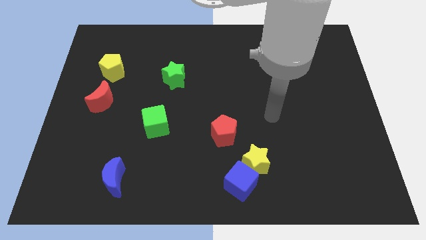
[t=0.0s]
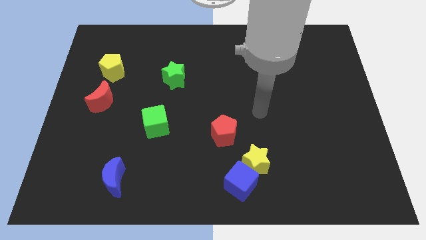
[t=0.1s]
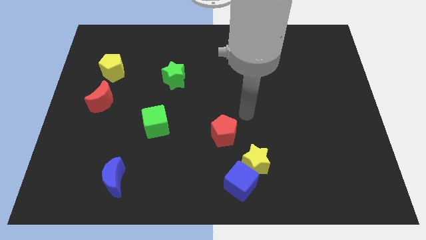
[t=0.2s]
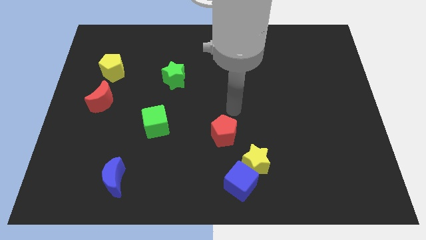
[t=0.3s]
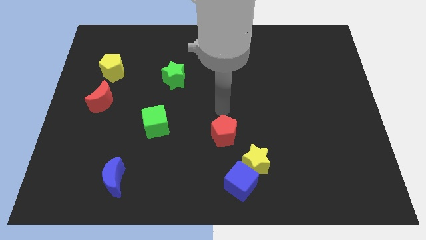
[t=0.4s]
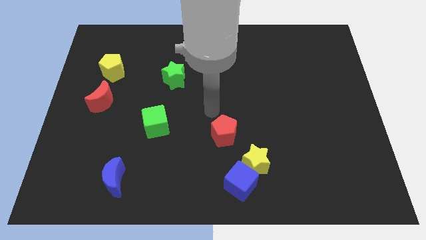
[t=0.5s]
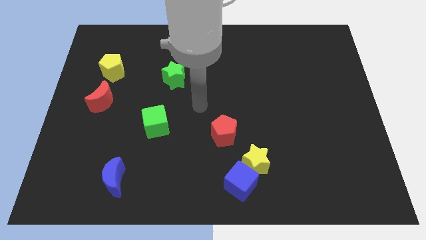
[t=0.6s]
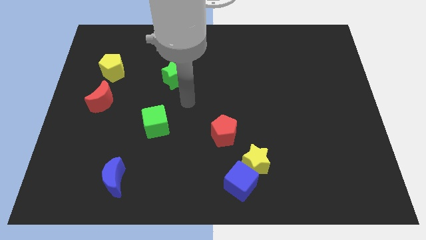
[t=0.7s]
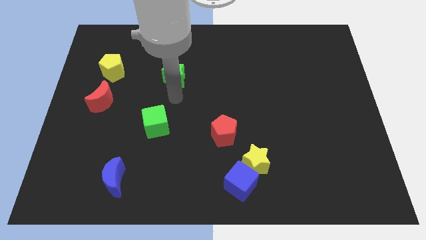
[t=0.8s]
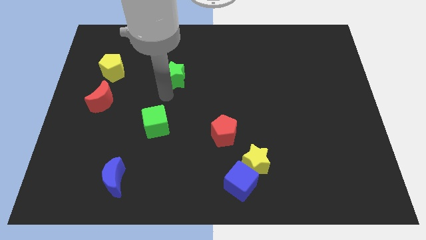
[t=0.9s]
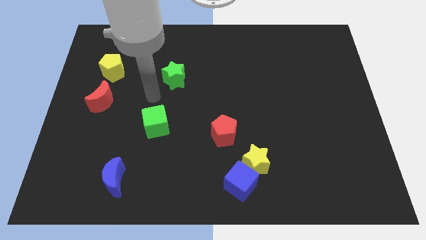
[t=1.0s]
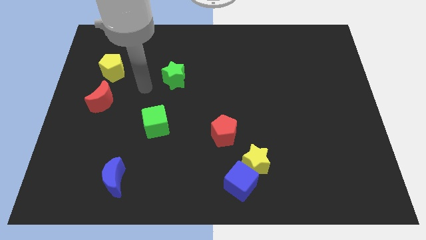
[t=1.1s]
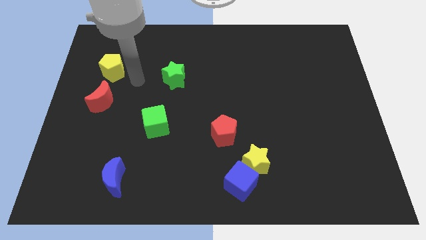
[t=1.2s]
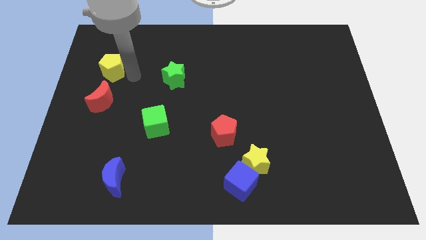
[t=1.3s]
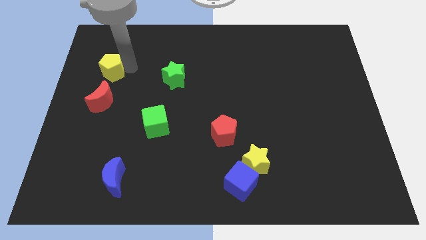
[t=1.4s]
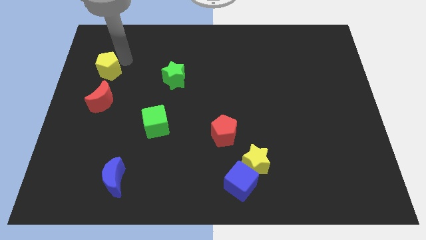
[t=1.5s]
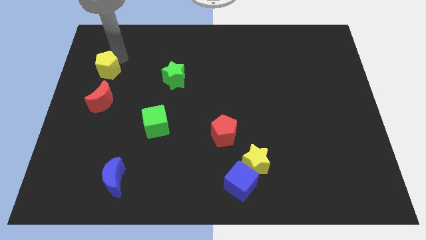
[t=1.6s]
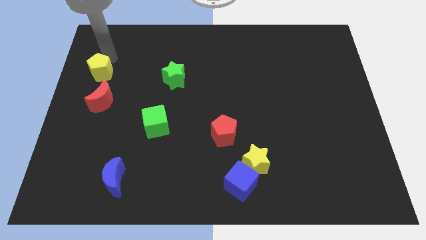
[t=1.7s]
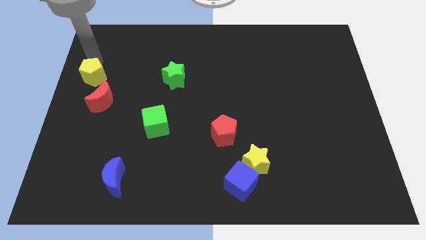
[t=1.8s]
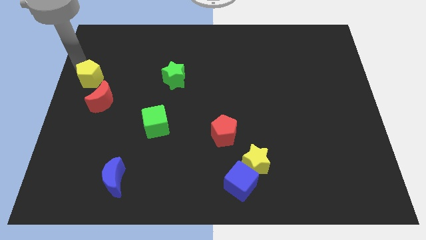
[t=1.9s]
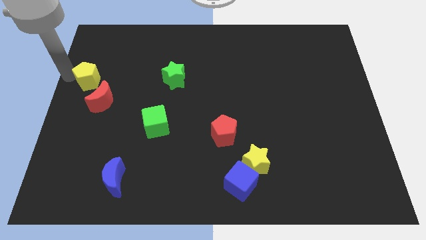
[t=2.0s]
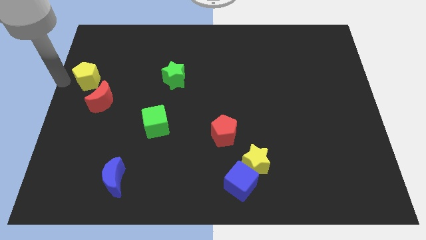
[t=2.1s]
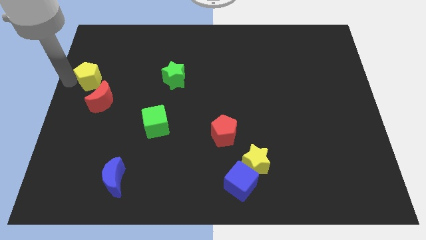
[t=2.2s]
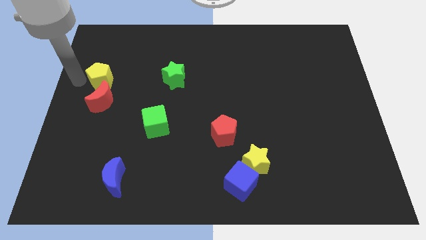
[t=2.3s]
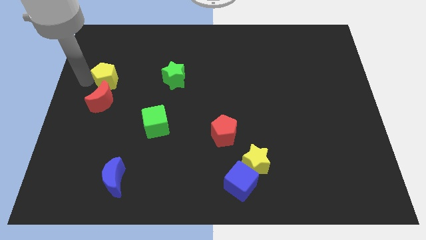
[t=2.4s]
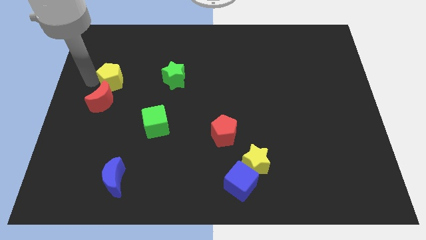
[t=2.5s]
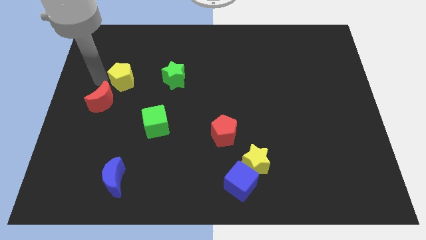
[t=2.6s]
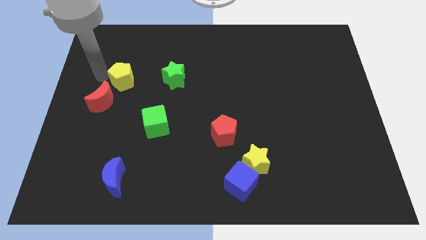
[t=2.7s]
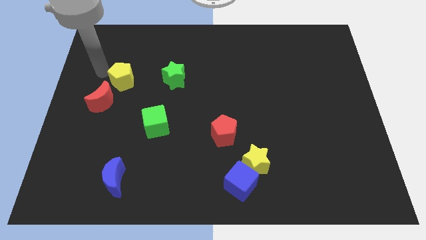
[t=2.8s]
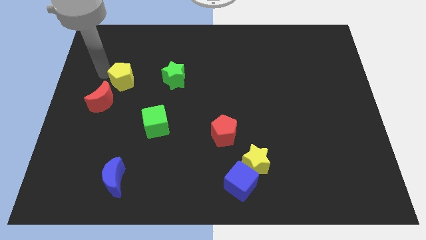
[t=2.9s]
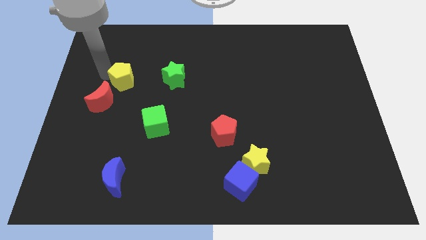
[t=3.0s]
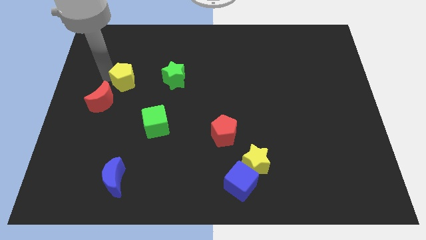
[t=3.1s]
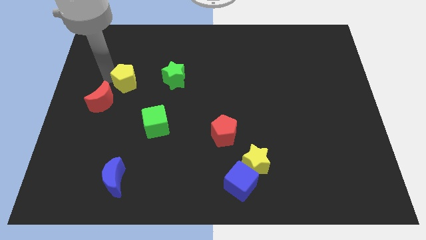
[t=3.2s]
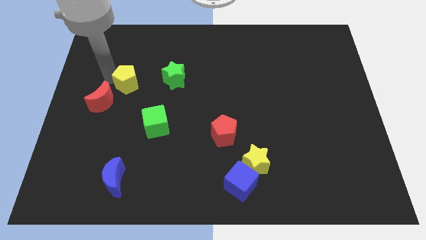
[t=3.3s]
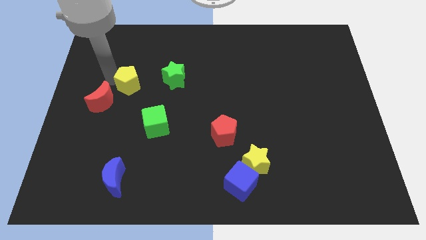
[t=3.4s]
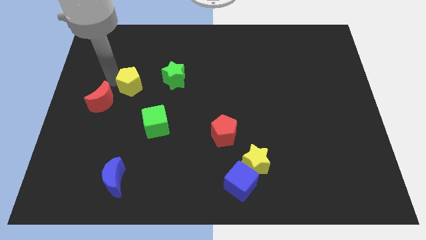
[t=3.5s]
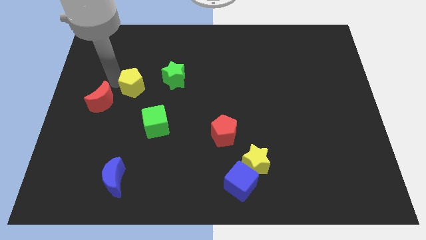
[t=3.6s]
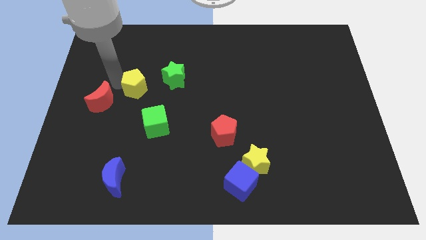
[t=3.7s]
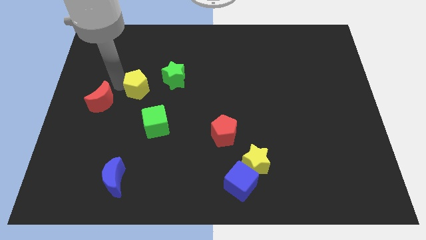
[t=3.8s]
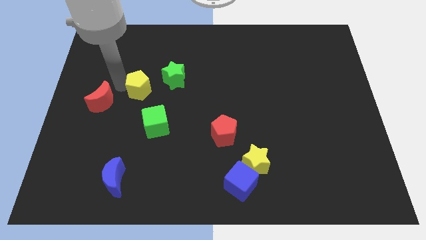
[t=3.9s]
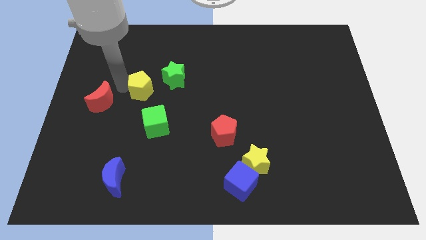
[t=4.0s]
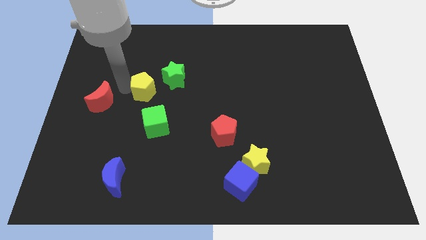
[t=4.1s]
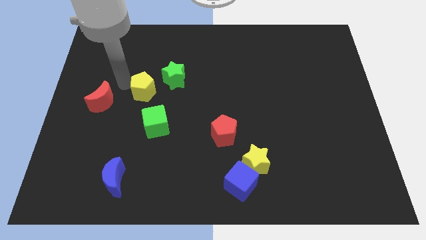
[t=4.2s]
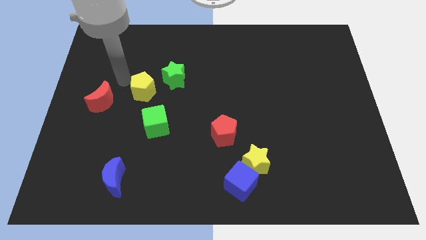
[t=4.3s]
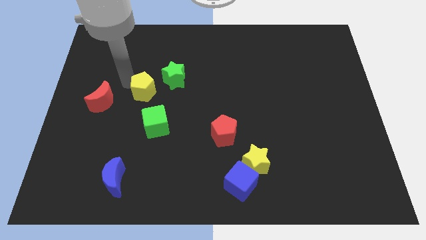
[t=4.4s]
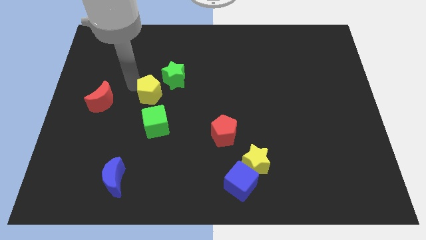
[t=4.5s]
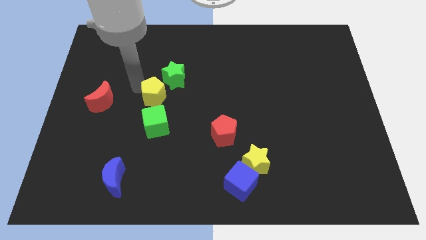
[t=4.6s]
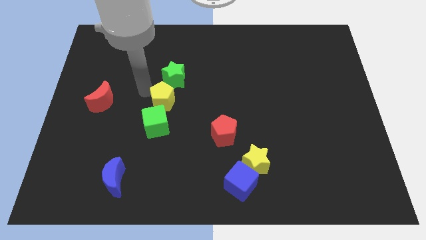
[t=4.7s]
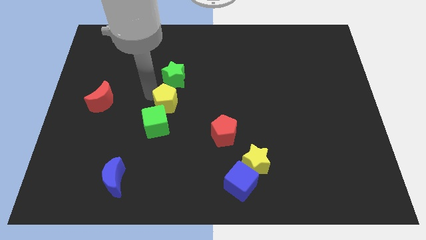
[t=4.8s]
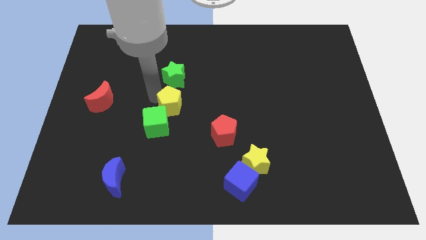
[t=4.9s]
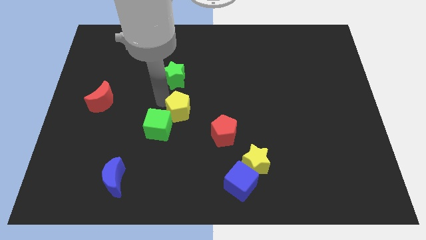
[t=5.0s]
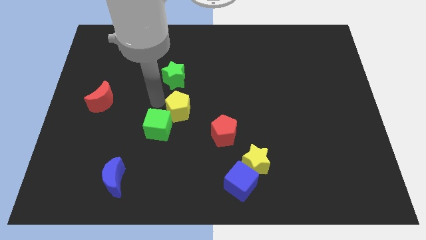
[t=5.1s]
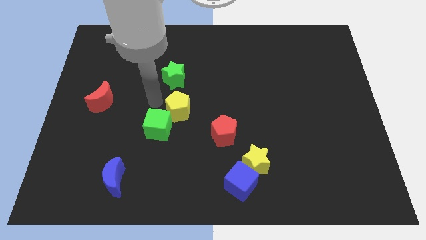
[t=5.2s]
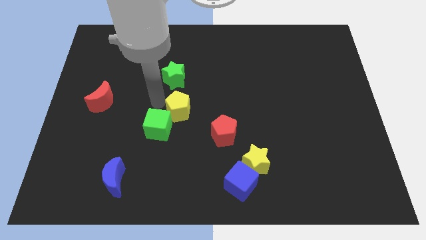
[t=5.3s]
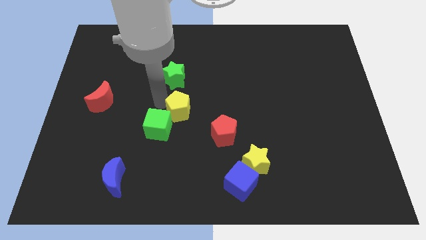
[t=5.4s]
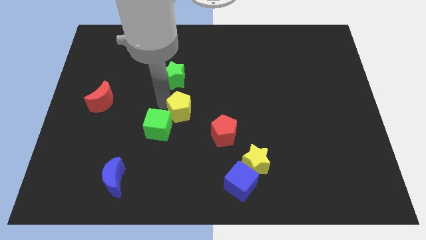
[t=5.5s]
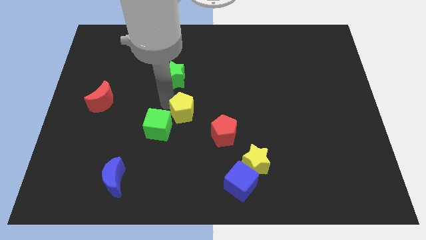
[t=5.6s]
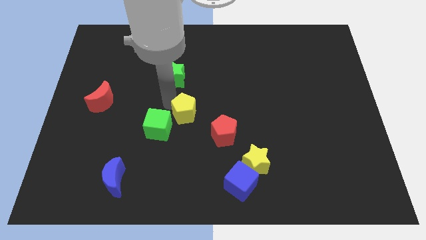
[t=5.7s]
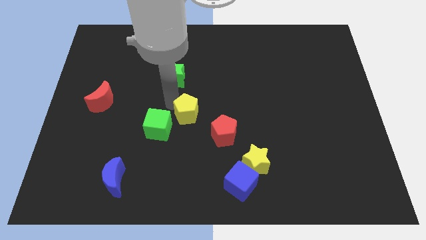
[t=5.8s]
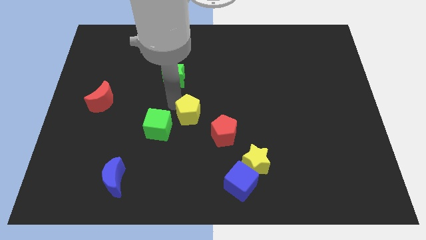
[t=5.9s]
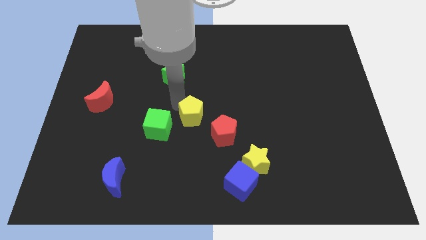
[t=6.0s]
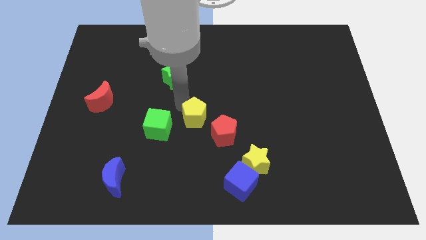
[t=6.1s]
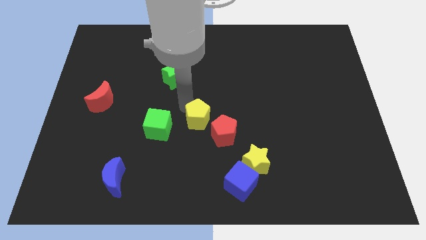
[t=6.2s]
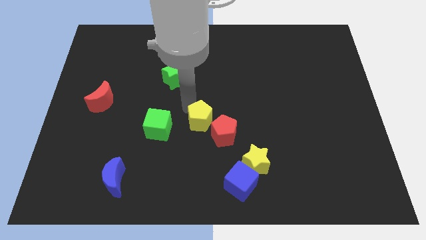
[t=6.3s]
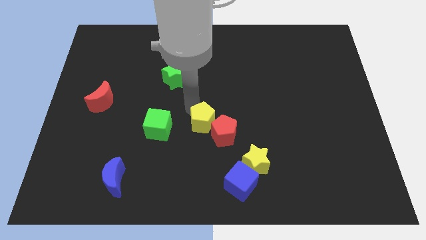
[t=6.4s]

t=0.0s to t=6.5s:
put the yellow pentagon close to the red pentagon

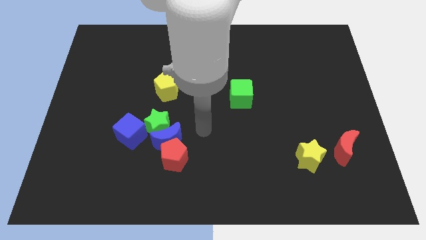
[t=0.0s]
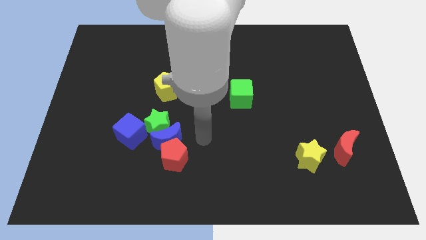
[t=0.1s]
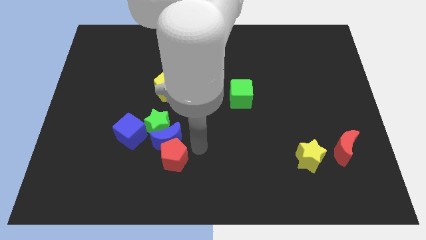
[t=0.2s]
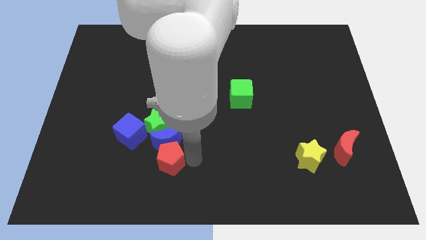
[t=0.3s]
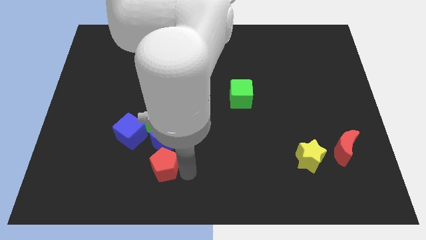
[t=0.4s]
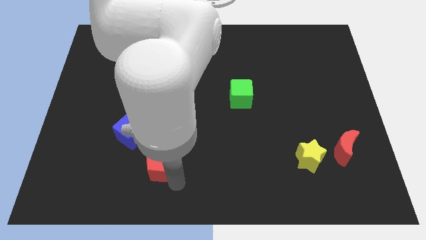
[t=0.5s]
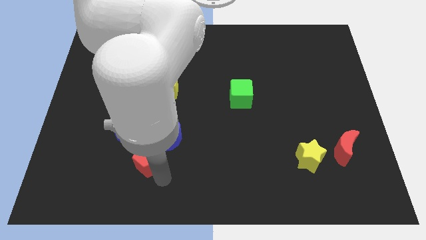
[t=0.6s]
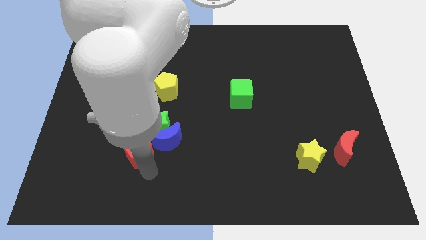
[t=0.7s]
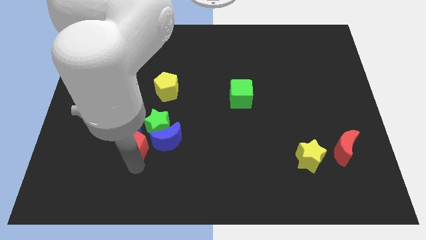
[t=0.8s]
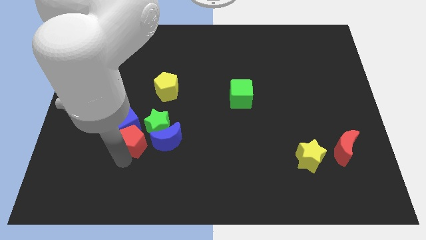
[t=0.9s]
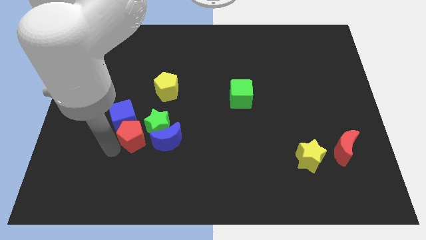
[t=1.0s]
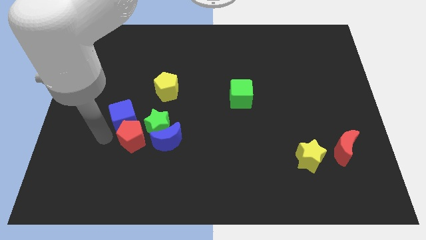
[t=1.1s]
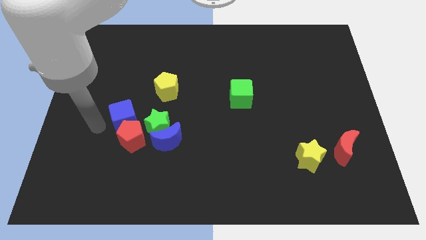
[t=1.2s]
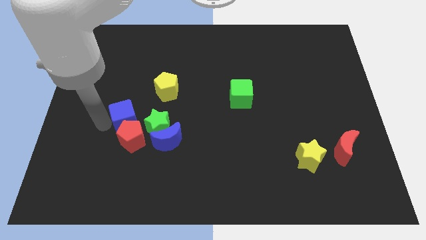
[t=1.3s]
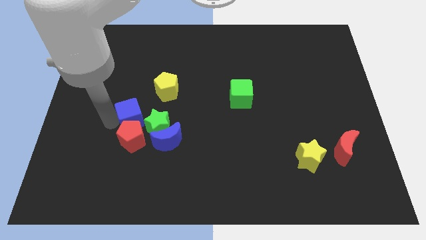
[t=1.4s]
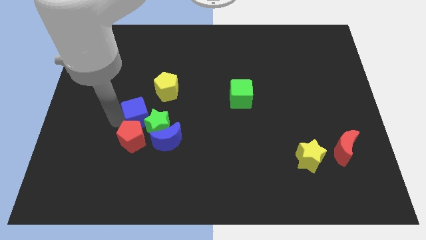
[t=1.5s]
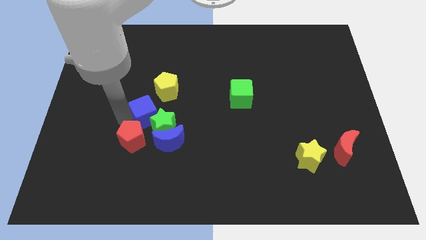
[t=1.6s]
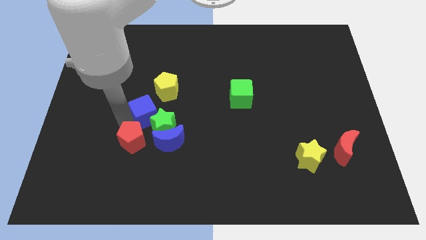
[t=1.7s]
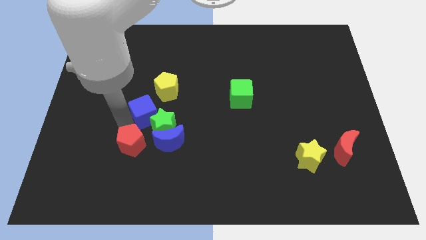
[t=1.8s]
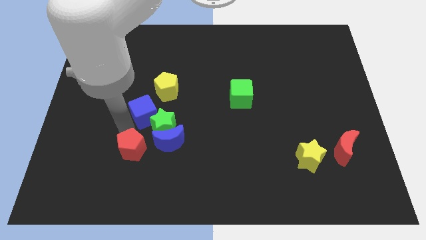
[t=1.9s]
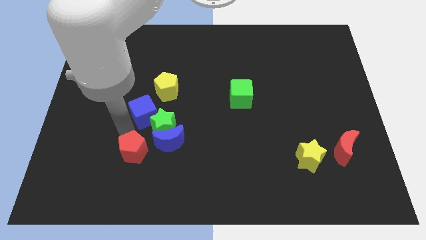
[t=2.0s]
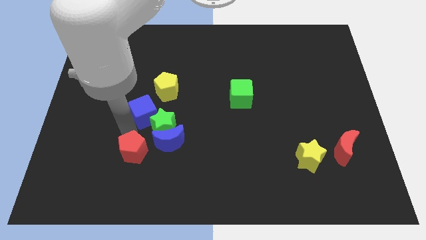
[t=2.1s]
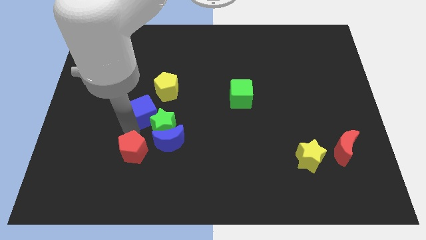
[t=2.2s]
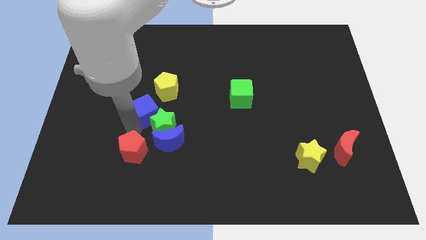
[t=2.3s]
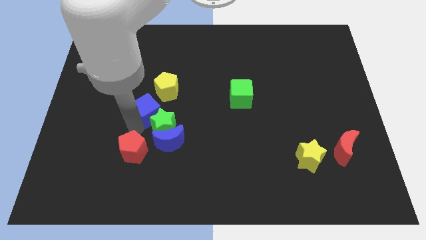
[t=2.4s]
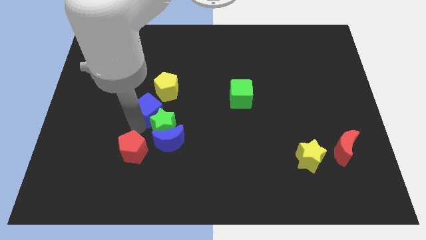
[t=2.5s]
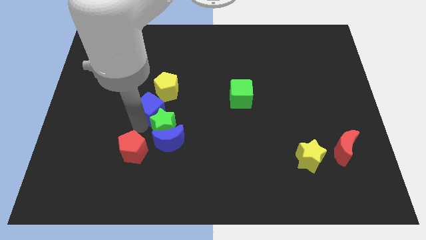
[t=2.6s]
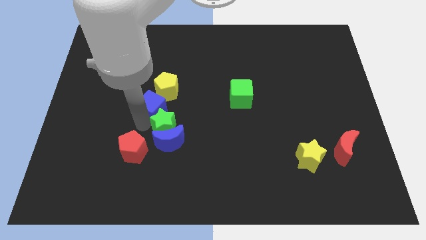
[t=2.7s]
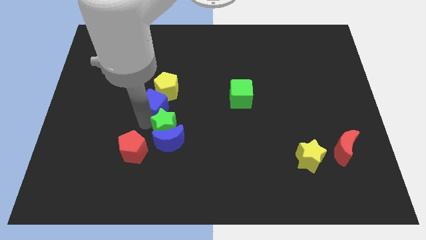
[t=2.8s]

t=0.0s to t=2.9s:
put the blue cube close to the yellow pentagon
